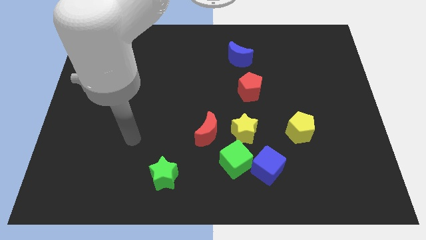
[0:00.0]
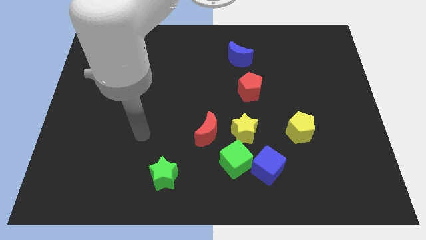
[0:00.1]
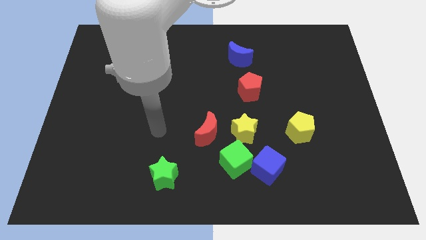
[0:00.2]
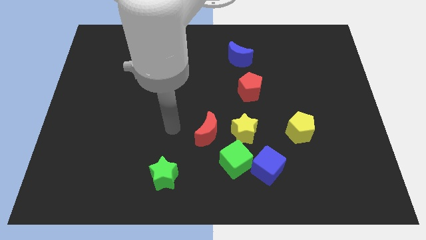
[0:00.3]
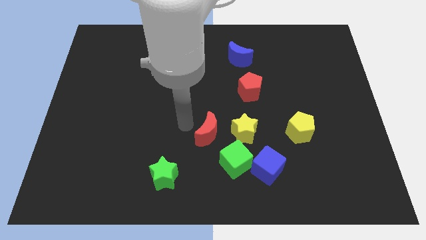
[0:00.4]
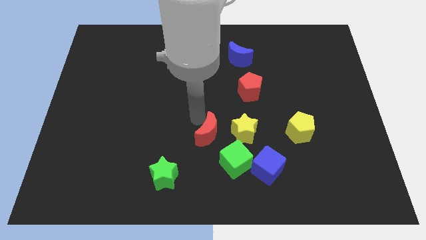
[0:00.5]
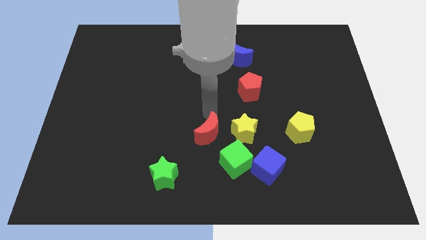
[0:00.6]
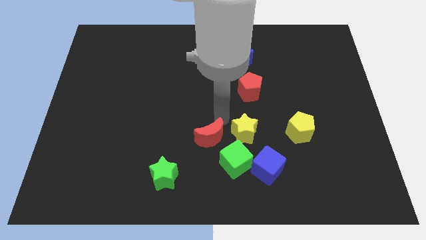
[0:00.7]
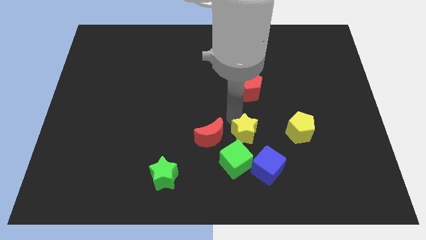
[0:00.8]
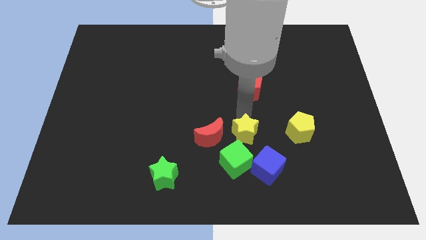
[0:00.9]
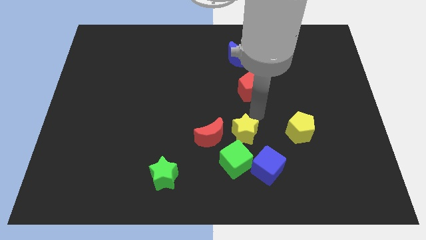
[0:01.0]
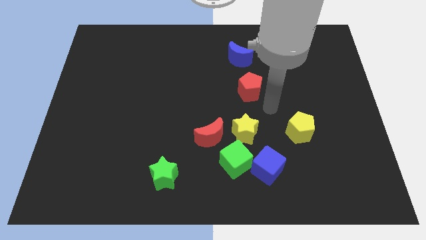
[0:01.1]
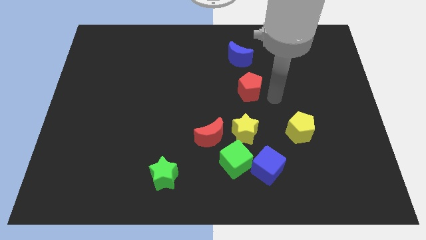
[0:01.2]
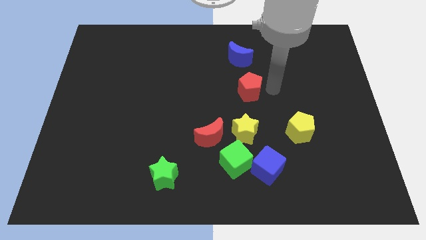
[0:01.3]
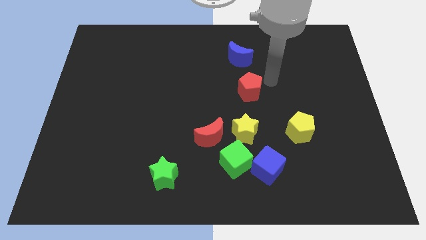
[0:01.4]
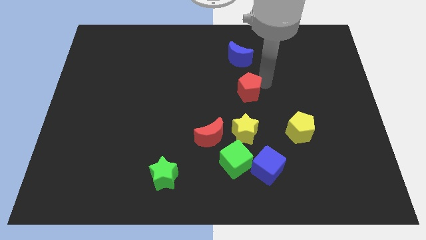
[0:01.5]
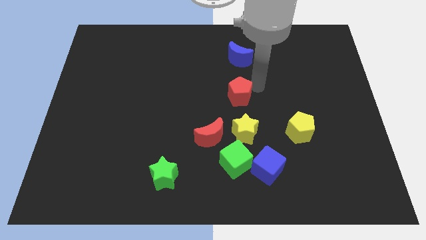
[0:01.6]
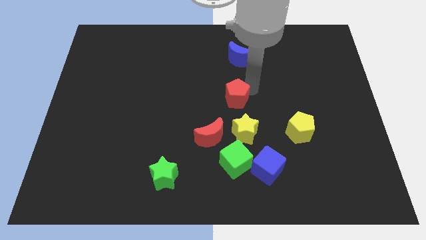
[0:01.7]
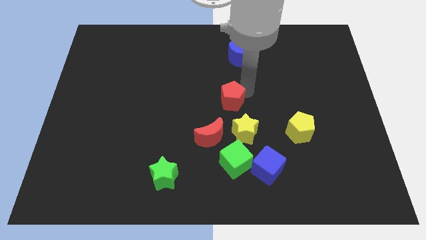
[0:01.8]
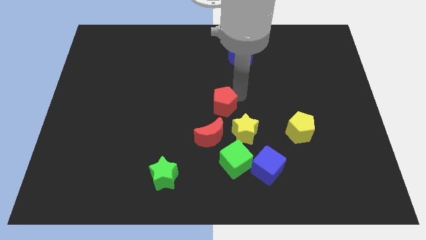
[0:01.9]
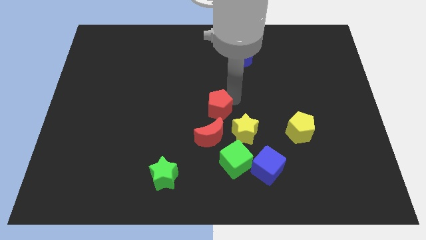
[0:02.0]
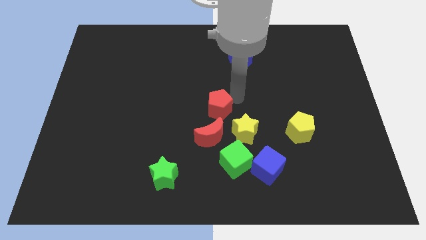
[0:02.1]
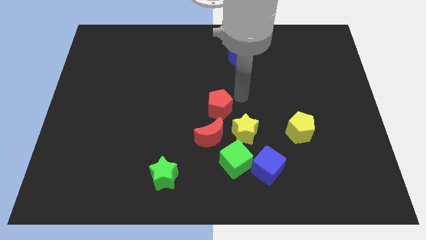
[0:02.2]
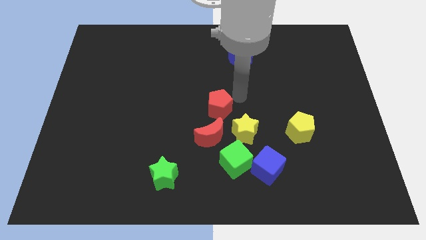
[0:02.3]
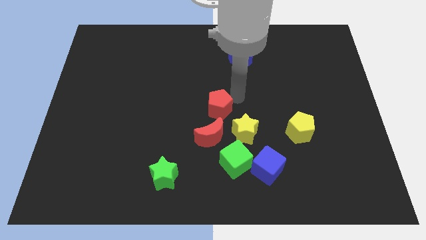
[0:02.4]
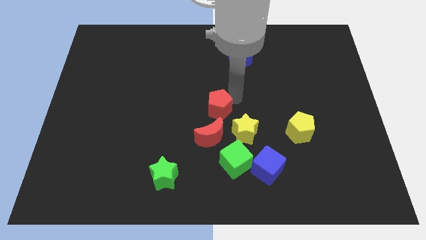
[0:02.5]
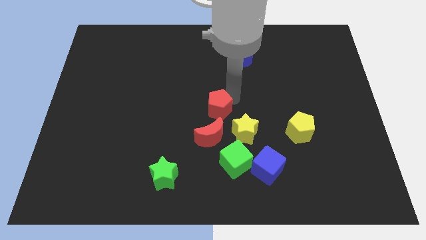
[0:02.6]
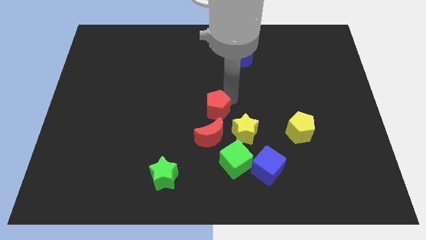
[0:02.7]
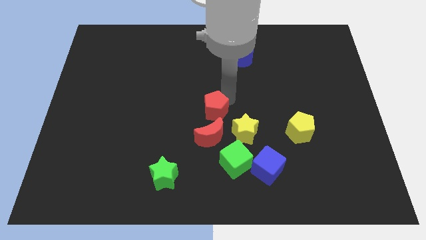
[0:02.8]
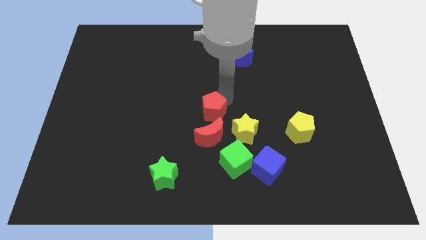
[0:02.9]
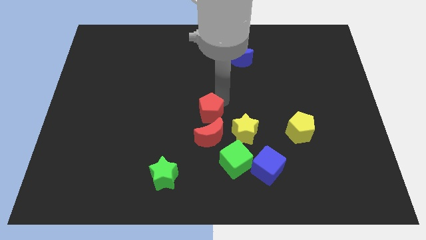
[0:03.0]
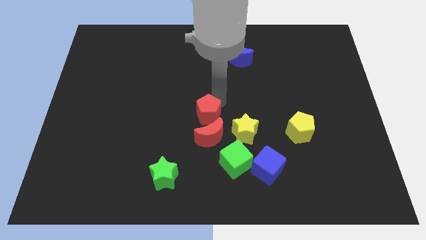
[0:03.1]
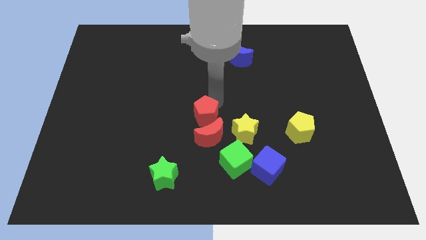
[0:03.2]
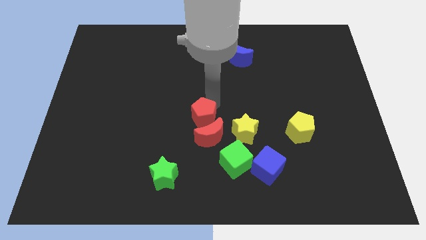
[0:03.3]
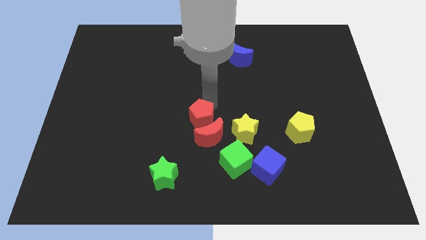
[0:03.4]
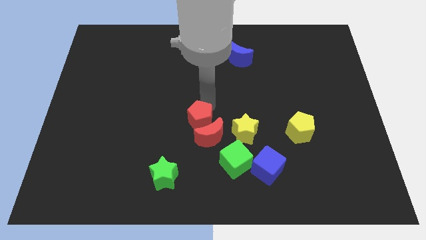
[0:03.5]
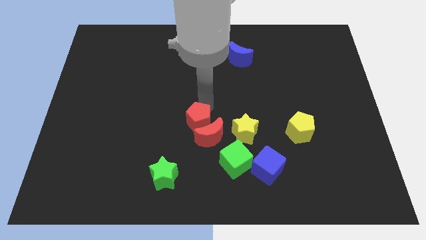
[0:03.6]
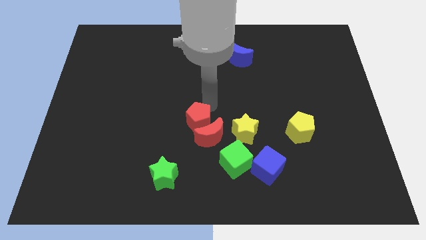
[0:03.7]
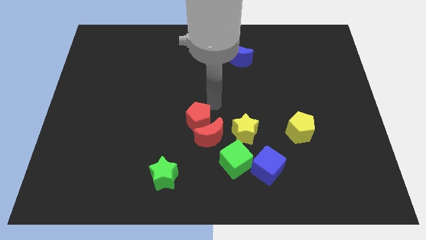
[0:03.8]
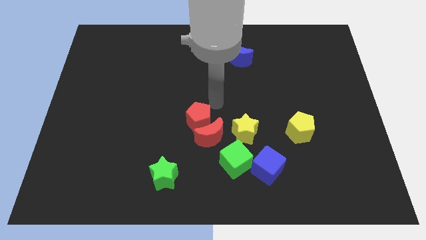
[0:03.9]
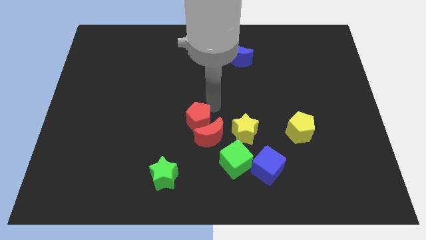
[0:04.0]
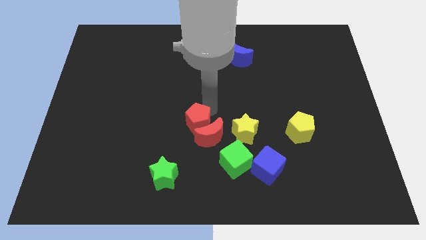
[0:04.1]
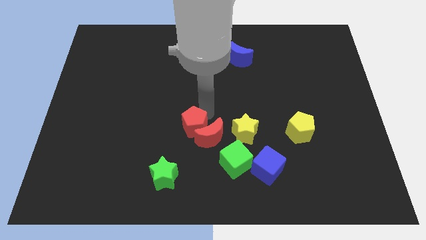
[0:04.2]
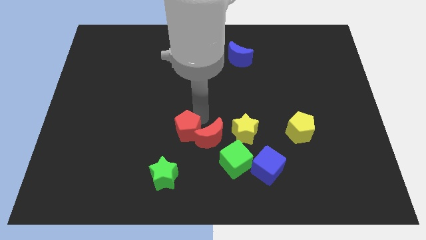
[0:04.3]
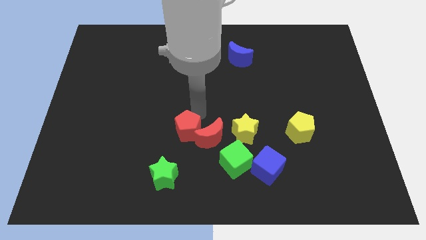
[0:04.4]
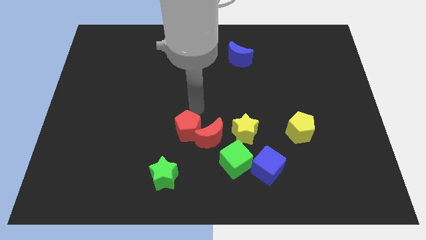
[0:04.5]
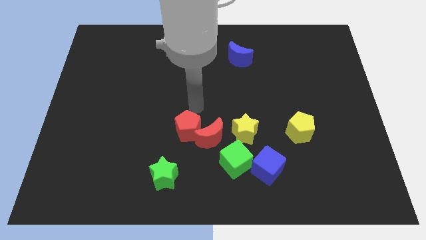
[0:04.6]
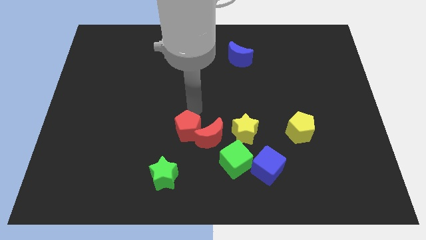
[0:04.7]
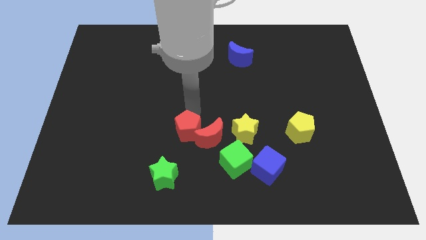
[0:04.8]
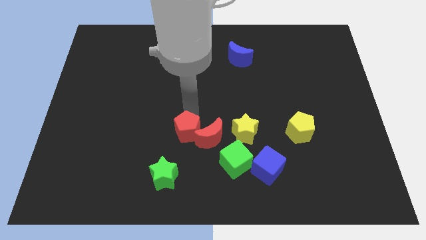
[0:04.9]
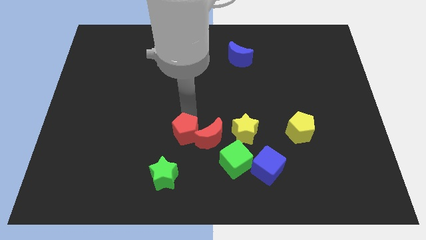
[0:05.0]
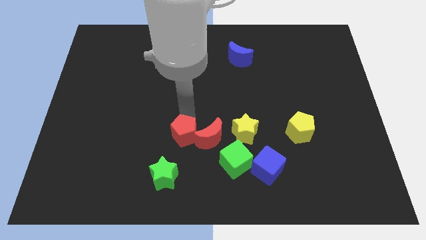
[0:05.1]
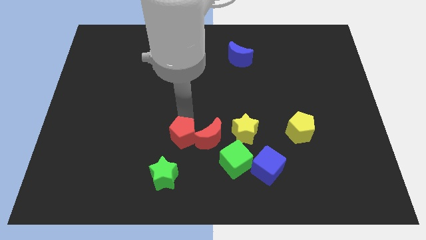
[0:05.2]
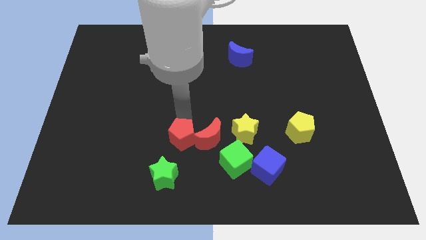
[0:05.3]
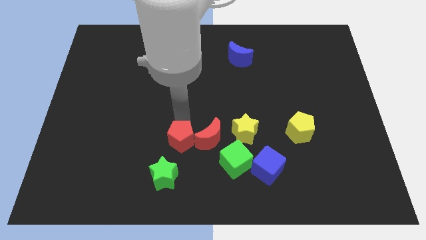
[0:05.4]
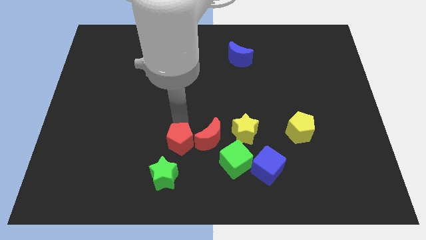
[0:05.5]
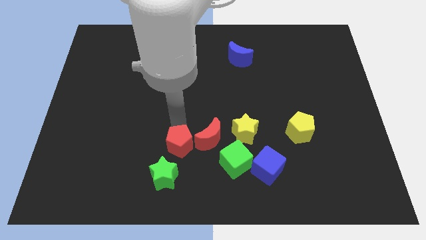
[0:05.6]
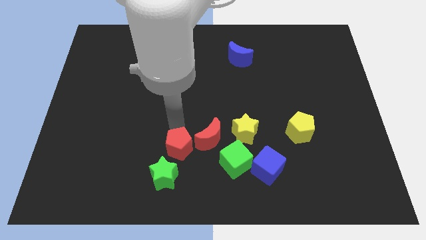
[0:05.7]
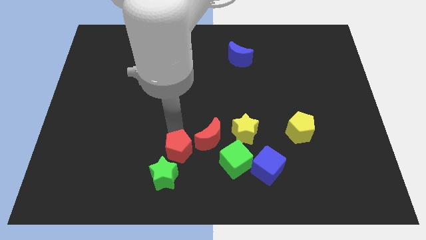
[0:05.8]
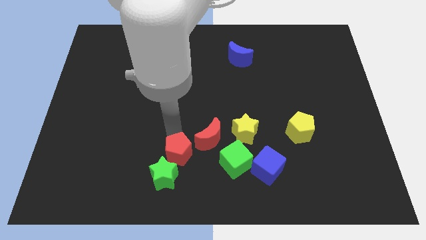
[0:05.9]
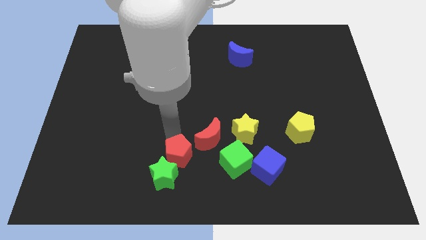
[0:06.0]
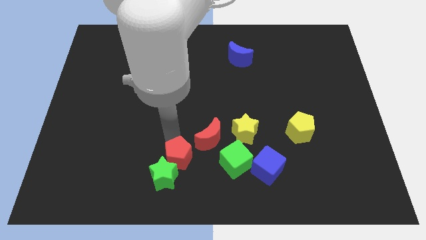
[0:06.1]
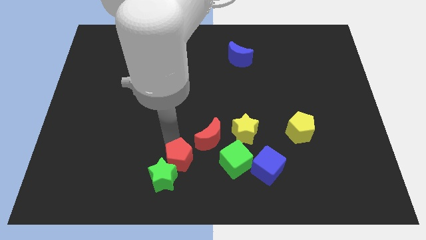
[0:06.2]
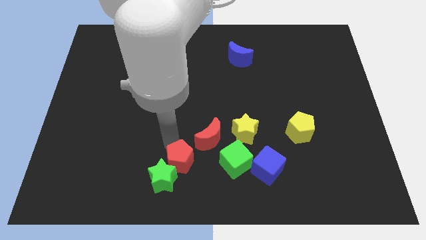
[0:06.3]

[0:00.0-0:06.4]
put the red pentagon to the bottom side
